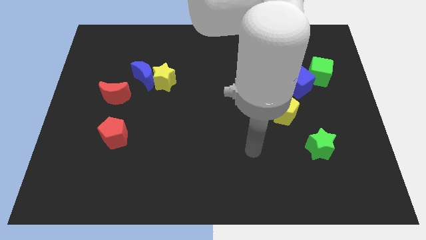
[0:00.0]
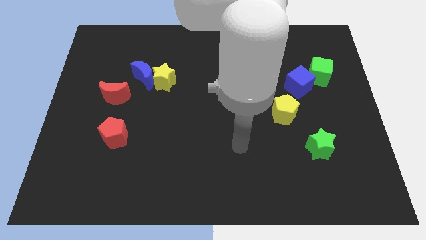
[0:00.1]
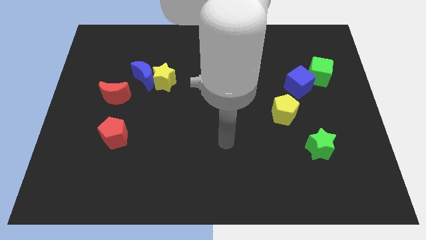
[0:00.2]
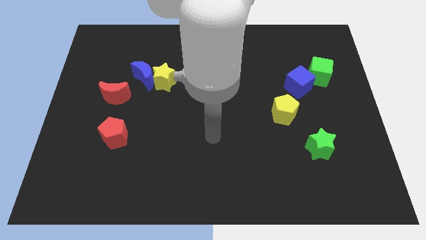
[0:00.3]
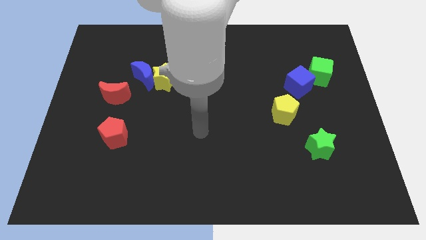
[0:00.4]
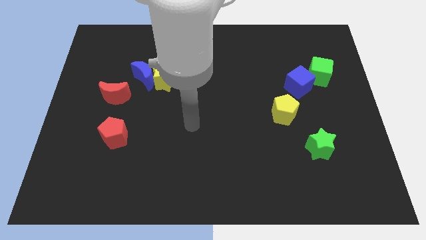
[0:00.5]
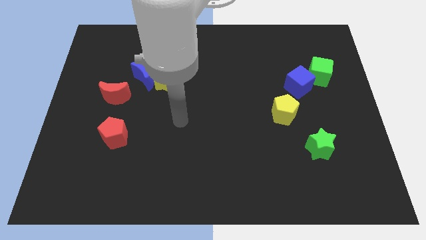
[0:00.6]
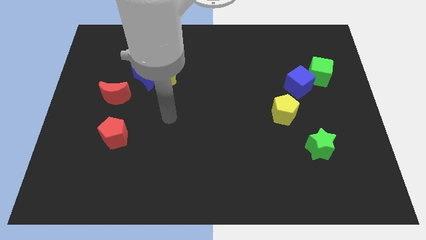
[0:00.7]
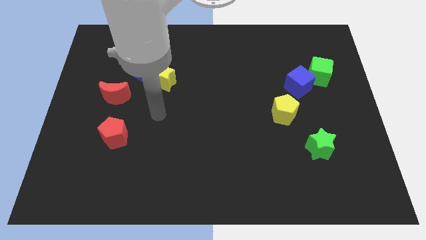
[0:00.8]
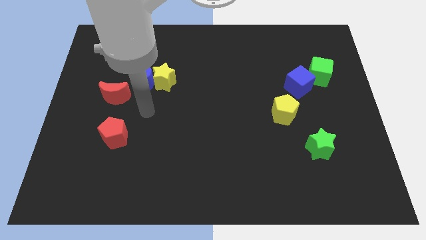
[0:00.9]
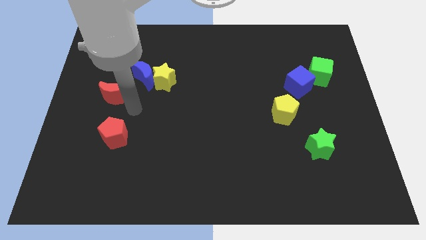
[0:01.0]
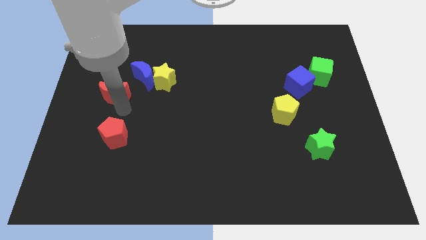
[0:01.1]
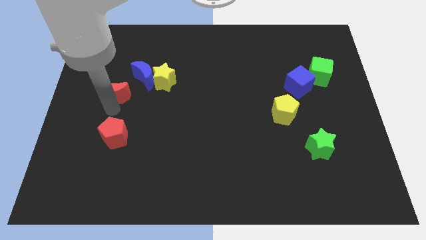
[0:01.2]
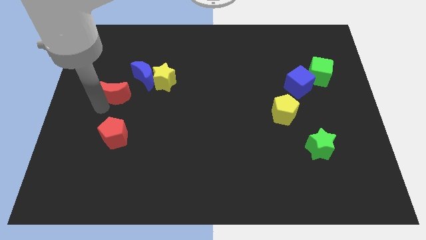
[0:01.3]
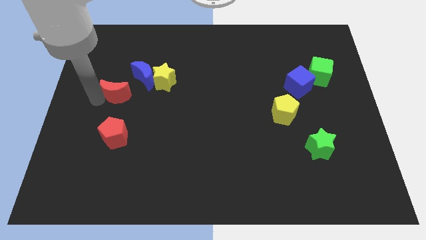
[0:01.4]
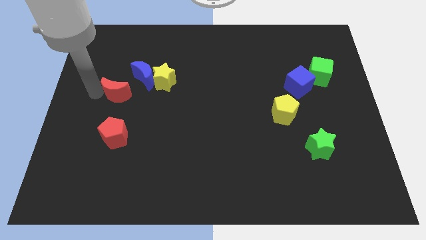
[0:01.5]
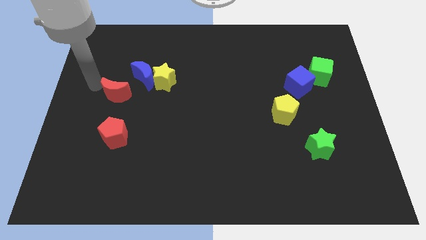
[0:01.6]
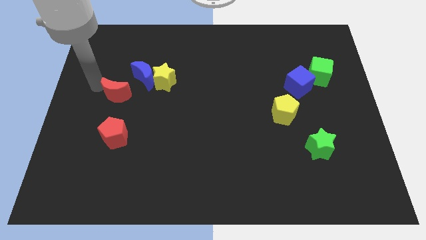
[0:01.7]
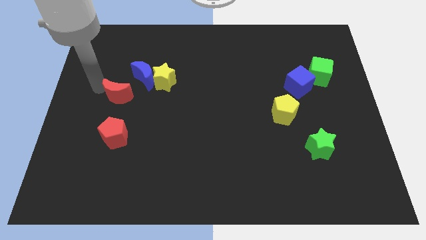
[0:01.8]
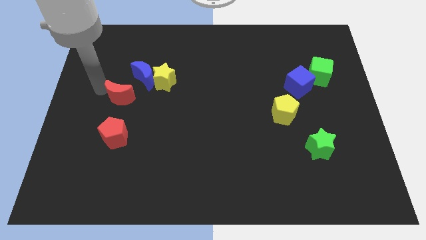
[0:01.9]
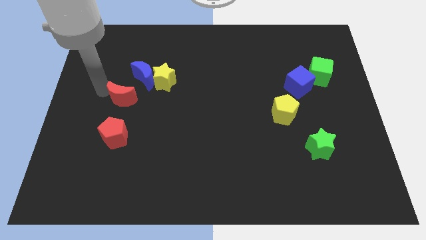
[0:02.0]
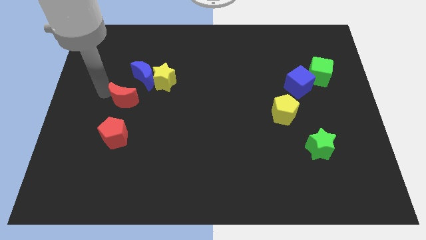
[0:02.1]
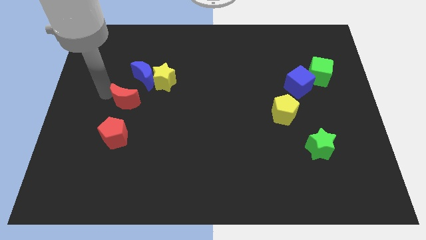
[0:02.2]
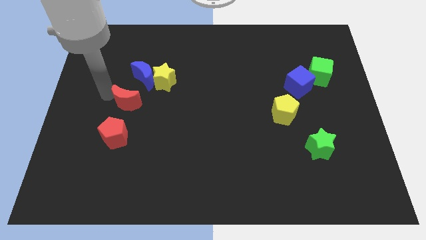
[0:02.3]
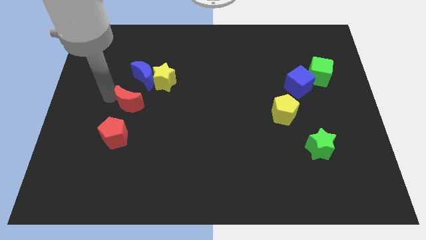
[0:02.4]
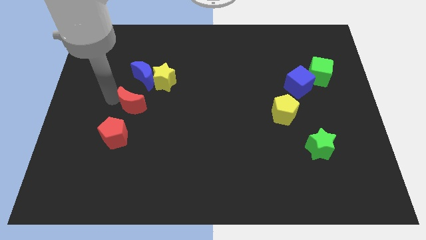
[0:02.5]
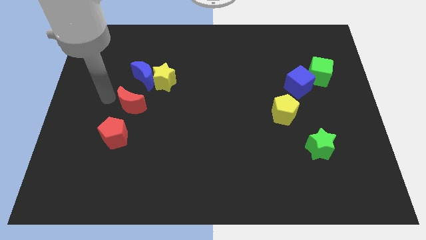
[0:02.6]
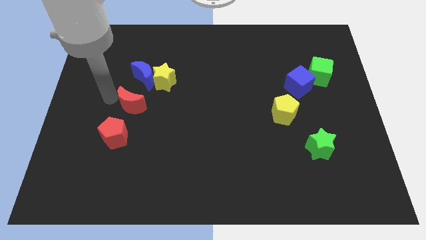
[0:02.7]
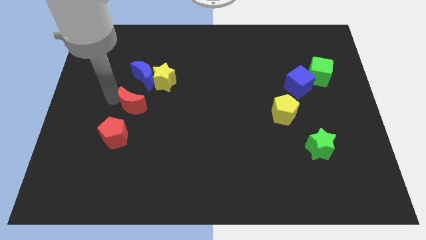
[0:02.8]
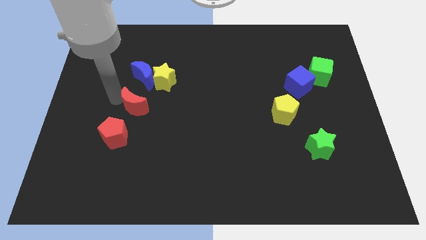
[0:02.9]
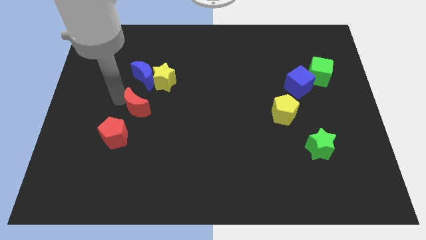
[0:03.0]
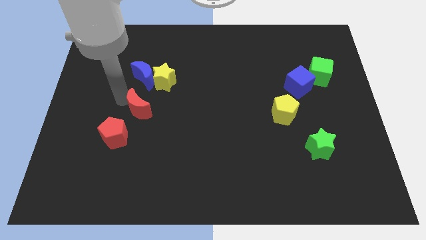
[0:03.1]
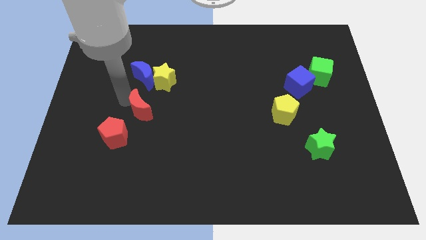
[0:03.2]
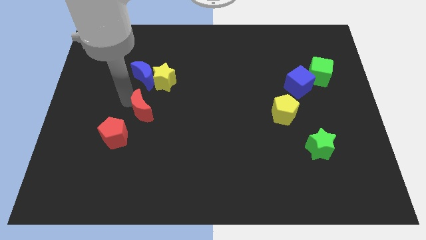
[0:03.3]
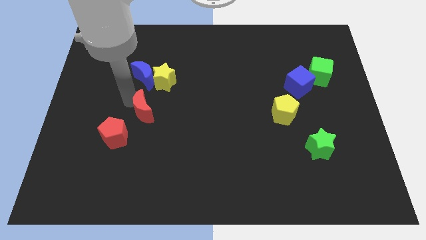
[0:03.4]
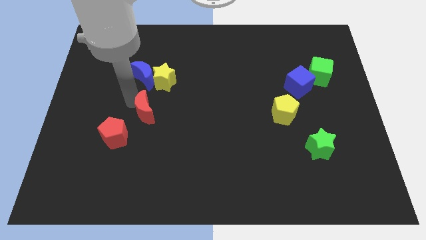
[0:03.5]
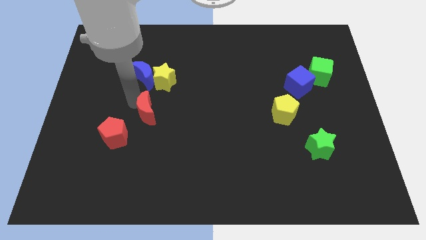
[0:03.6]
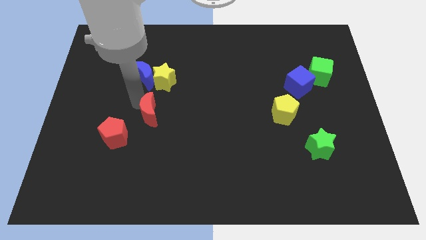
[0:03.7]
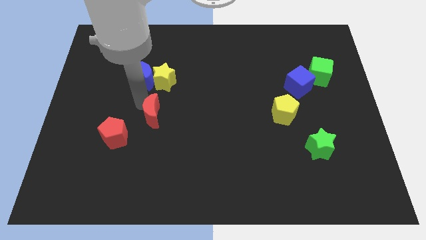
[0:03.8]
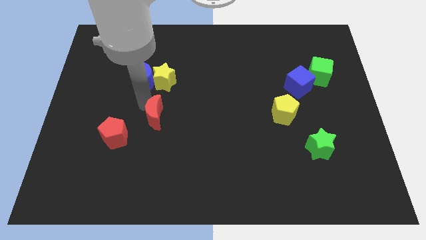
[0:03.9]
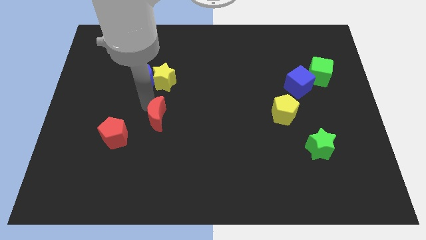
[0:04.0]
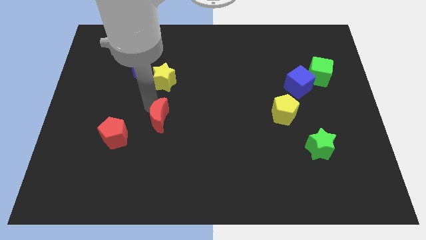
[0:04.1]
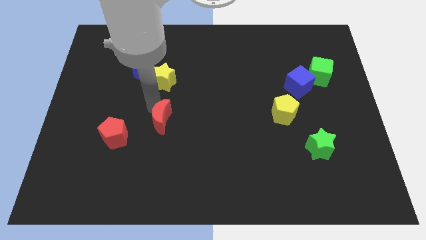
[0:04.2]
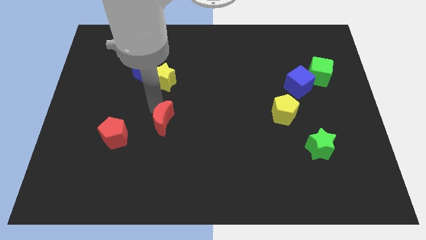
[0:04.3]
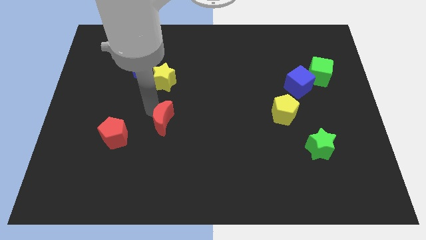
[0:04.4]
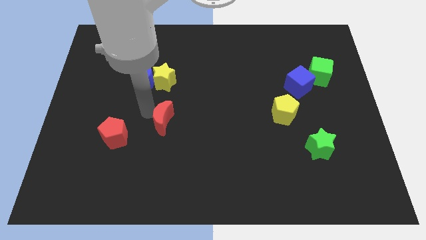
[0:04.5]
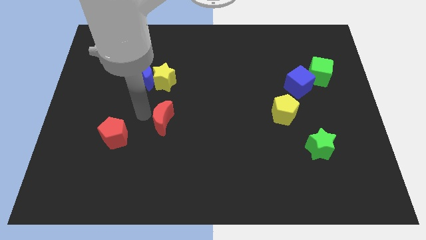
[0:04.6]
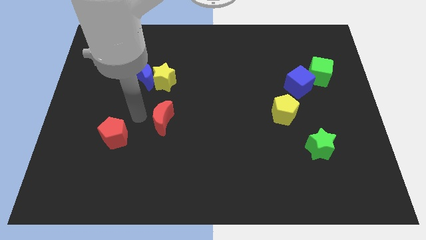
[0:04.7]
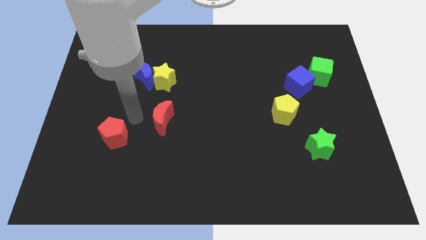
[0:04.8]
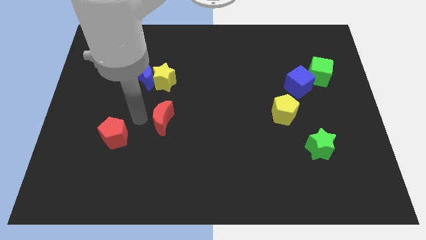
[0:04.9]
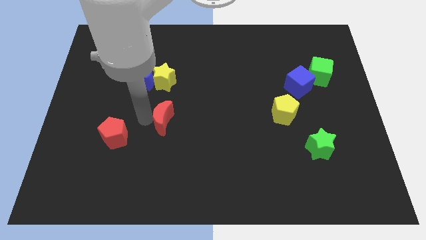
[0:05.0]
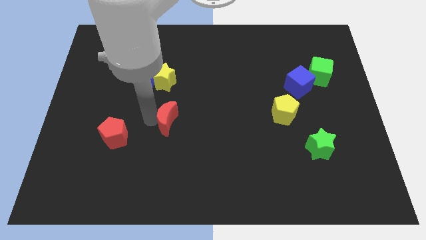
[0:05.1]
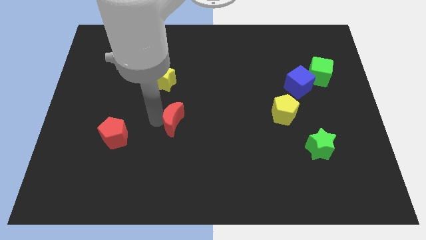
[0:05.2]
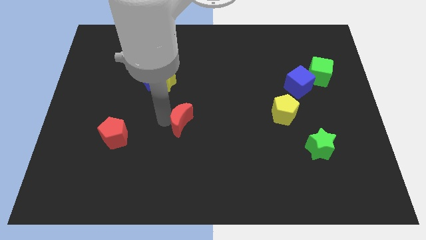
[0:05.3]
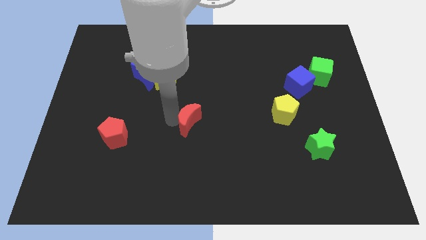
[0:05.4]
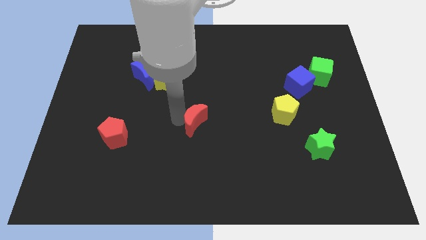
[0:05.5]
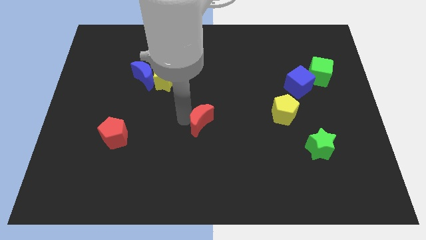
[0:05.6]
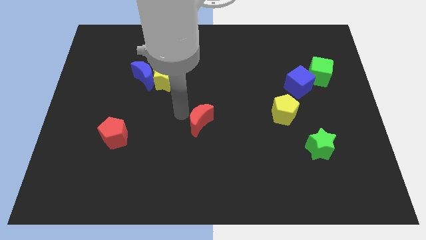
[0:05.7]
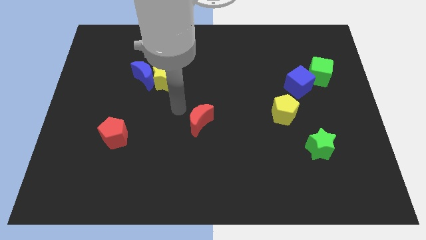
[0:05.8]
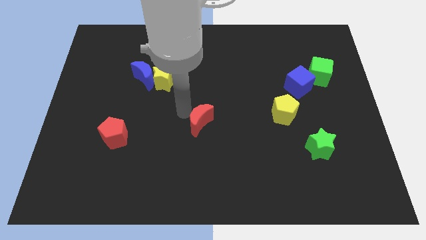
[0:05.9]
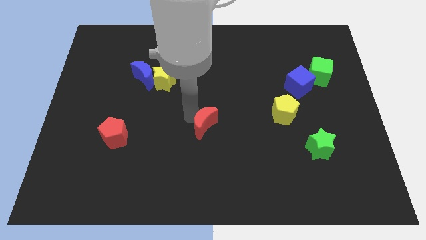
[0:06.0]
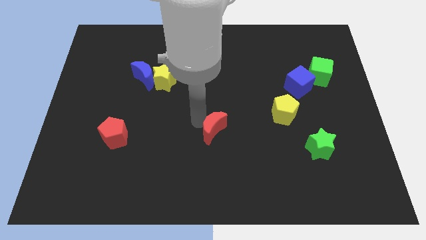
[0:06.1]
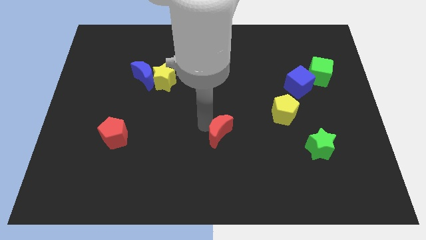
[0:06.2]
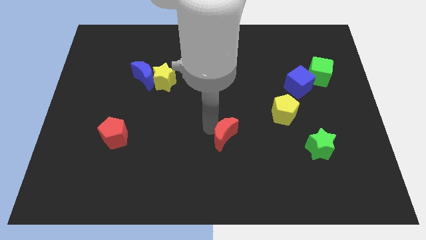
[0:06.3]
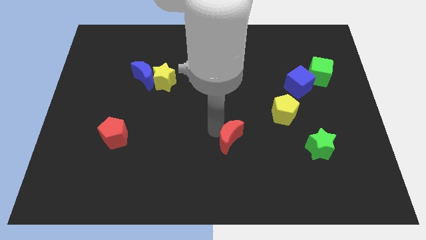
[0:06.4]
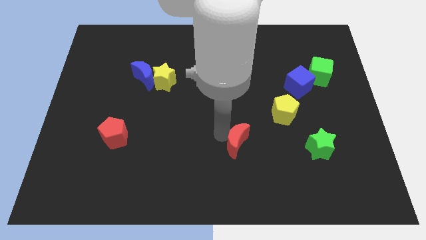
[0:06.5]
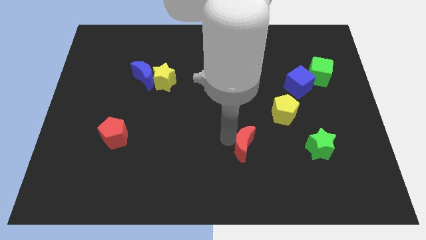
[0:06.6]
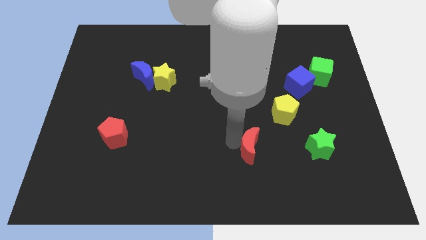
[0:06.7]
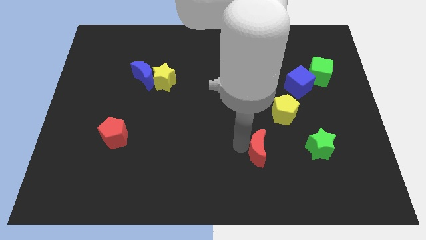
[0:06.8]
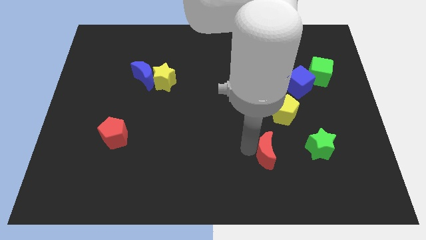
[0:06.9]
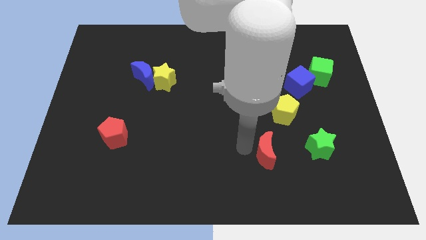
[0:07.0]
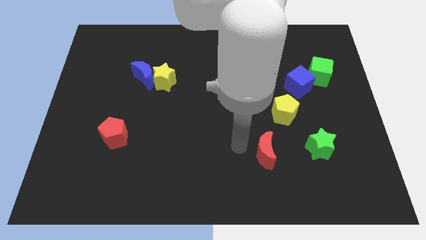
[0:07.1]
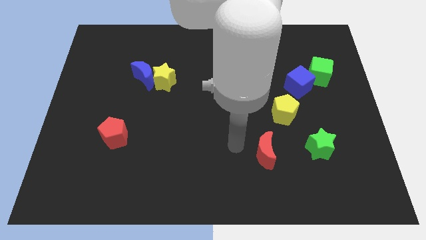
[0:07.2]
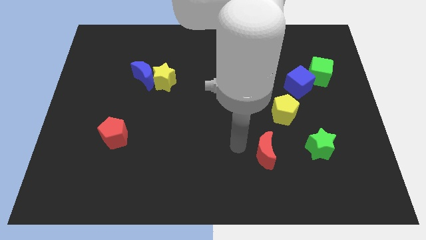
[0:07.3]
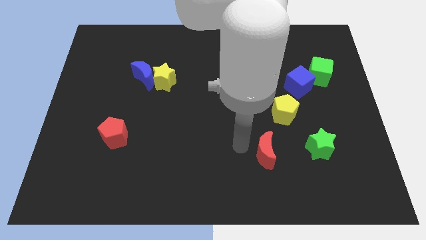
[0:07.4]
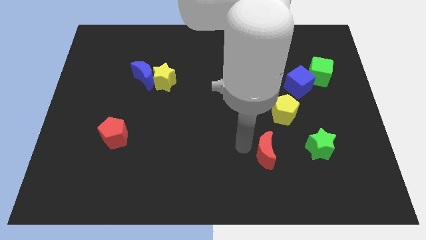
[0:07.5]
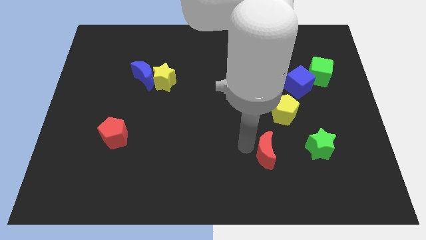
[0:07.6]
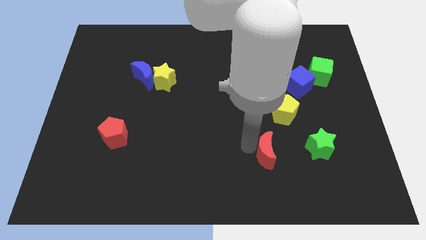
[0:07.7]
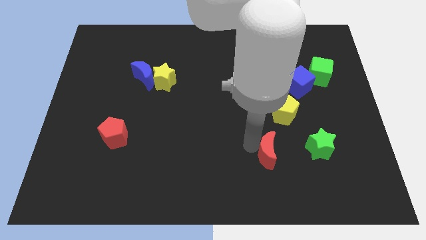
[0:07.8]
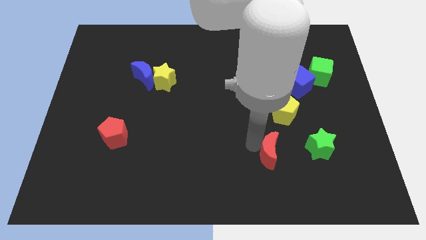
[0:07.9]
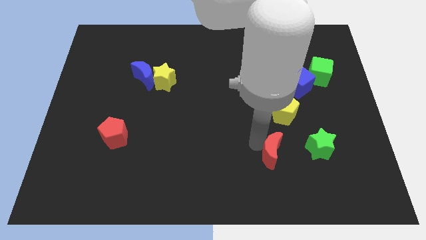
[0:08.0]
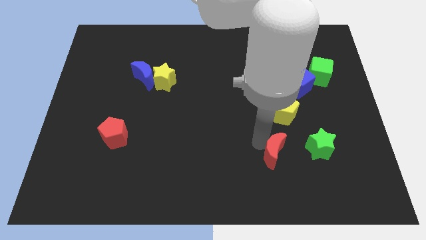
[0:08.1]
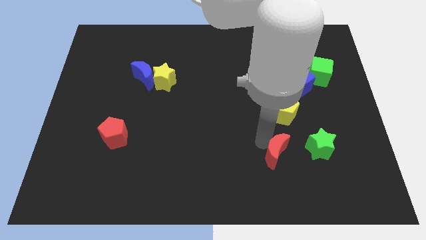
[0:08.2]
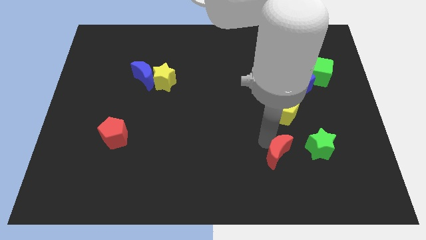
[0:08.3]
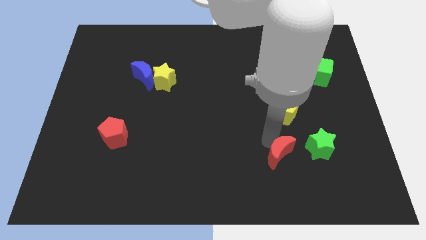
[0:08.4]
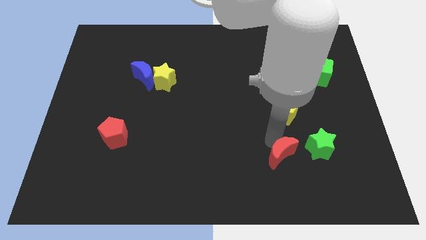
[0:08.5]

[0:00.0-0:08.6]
move the red moon diagonally down and to the left of the green star
